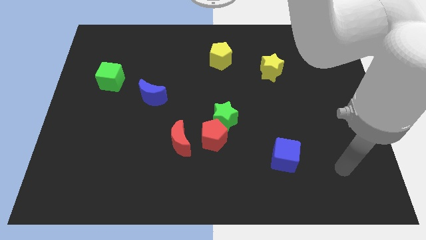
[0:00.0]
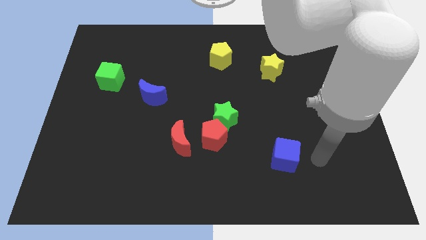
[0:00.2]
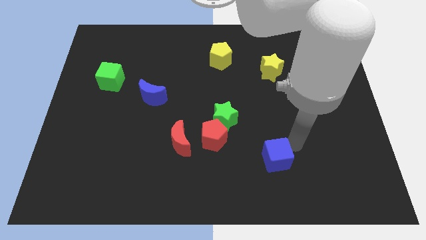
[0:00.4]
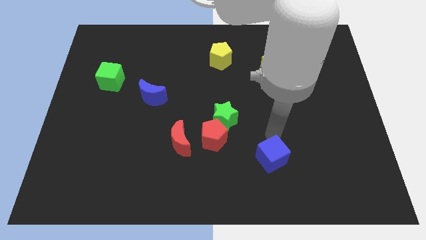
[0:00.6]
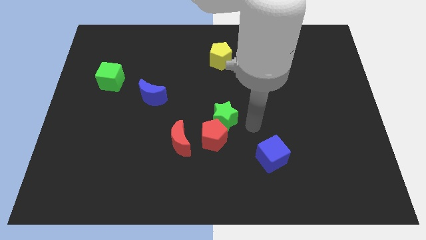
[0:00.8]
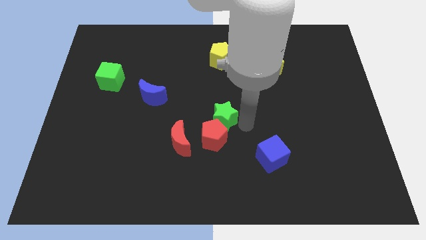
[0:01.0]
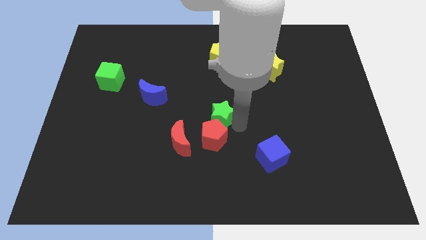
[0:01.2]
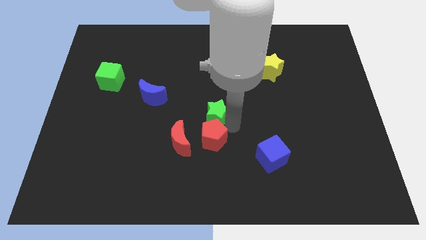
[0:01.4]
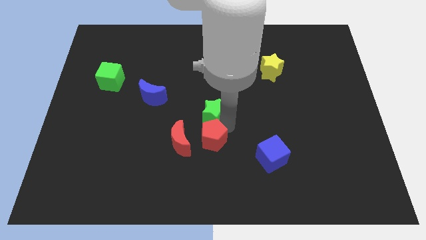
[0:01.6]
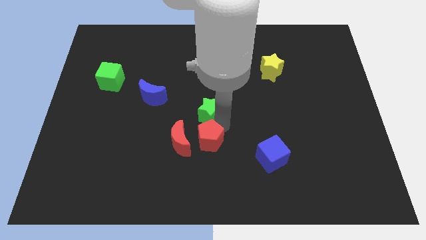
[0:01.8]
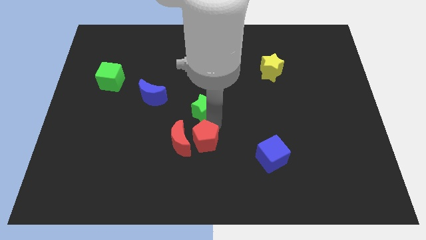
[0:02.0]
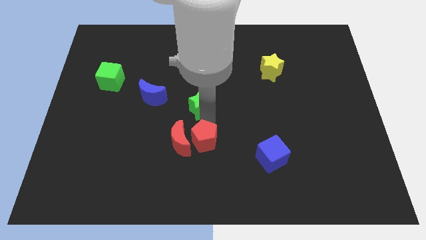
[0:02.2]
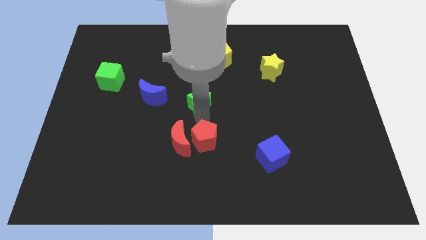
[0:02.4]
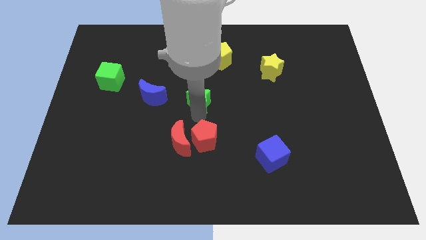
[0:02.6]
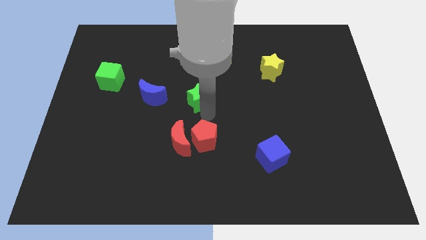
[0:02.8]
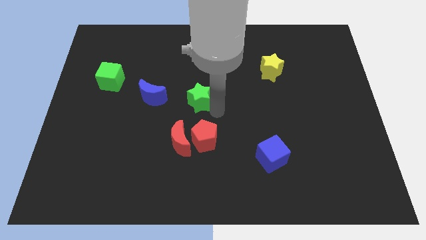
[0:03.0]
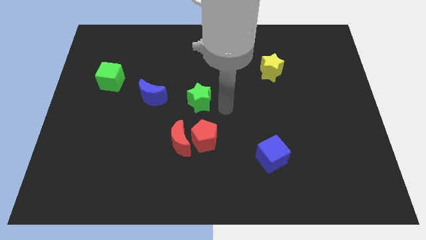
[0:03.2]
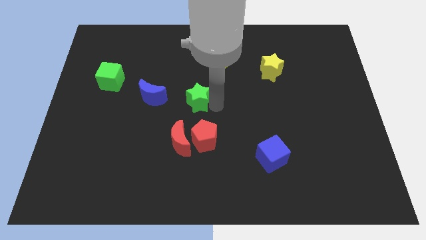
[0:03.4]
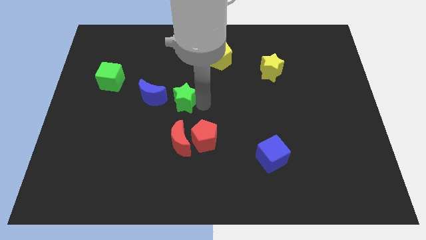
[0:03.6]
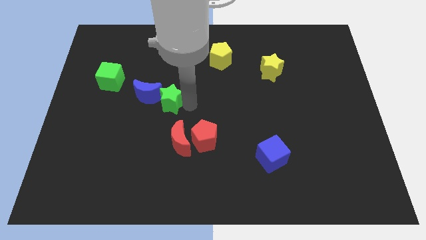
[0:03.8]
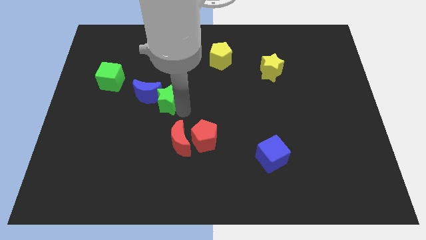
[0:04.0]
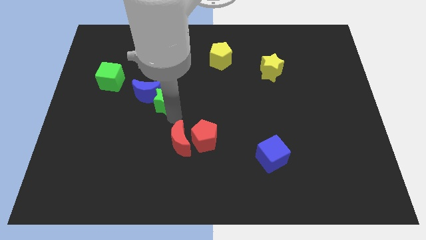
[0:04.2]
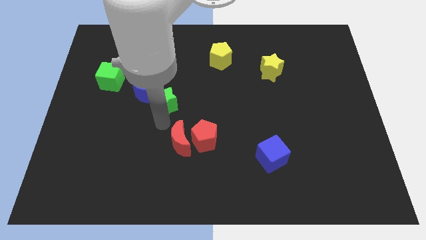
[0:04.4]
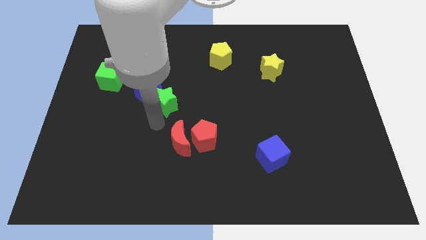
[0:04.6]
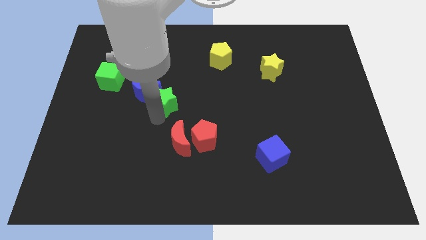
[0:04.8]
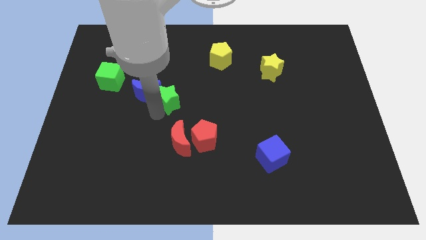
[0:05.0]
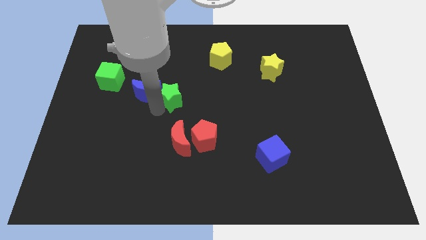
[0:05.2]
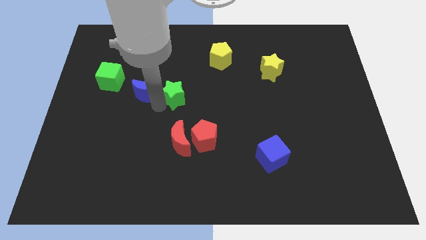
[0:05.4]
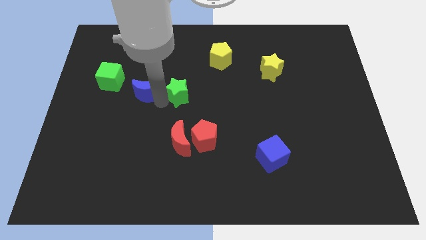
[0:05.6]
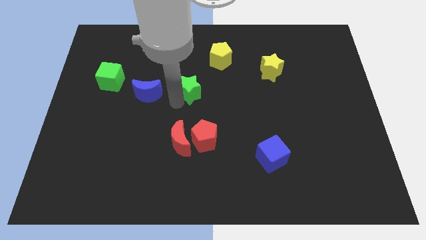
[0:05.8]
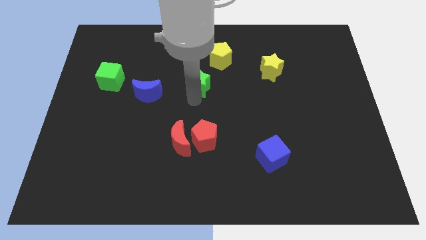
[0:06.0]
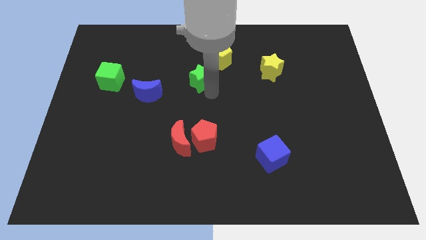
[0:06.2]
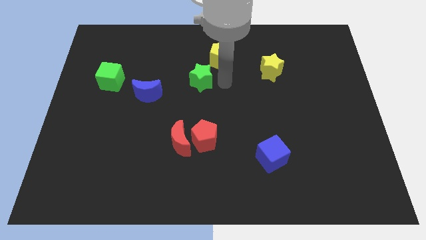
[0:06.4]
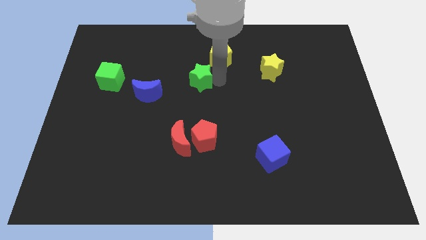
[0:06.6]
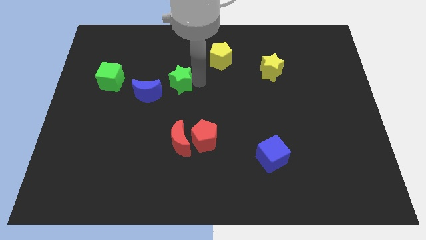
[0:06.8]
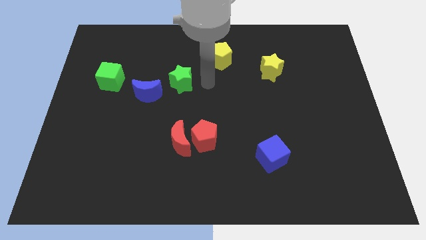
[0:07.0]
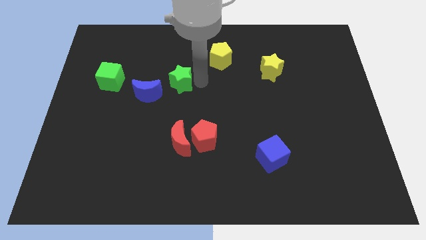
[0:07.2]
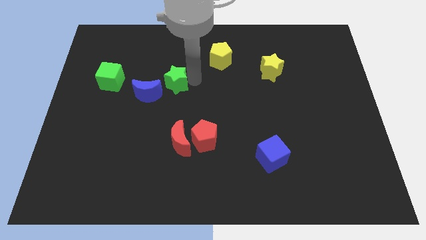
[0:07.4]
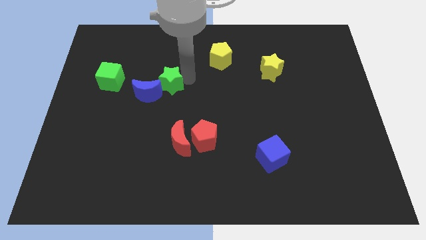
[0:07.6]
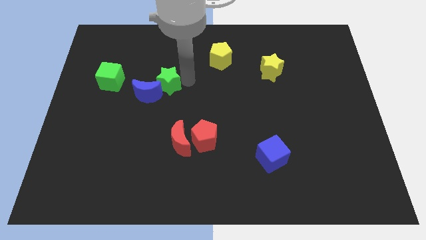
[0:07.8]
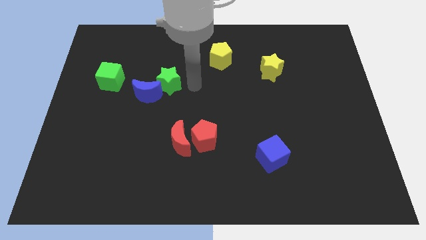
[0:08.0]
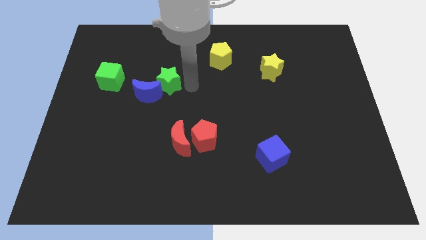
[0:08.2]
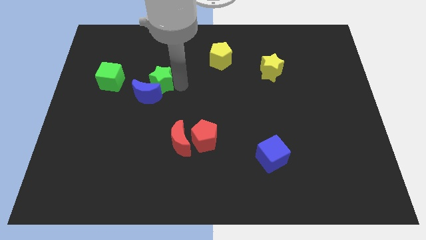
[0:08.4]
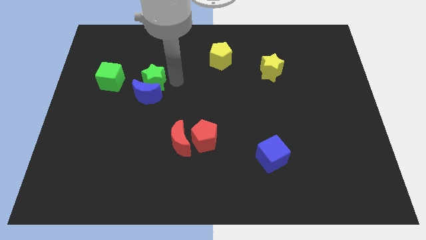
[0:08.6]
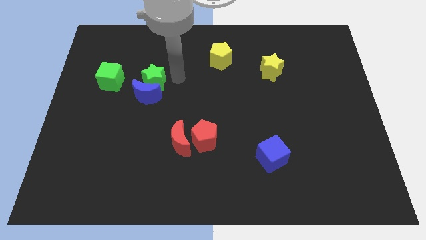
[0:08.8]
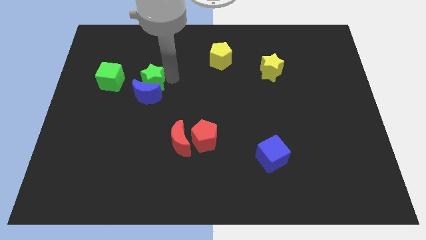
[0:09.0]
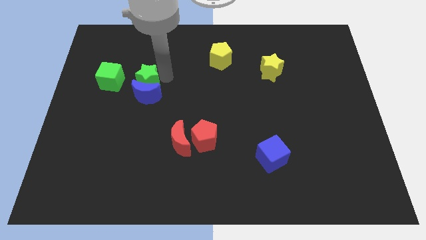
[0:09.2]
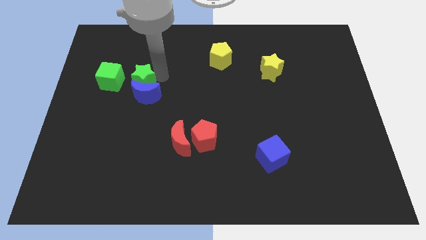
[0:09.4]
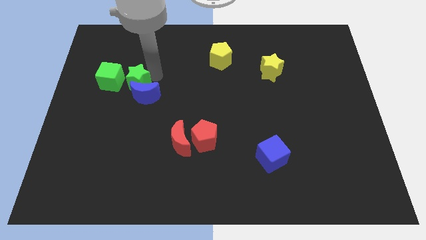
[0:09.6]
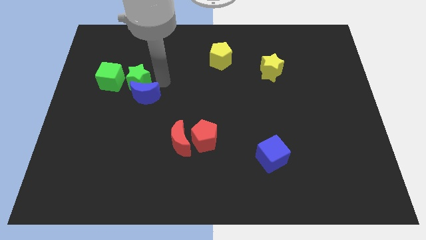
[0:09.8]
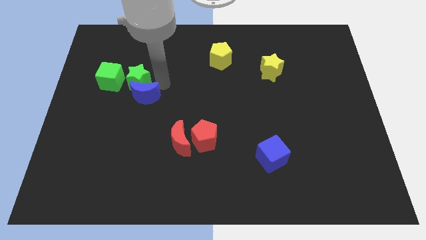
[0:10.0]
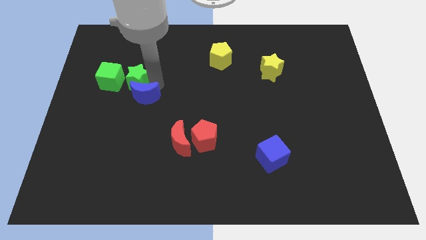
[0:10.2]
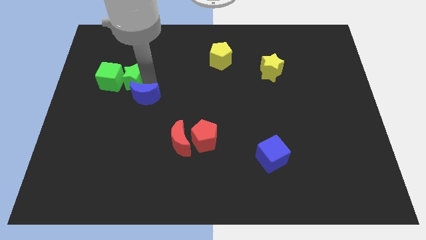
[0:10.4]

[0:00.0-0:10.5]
put the green star close to the green cube

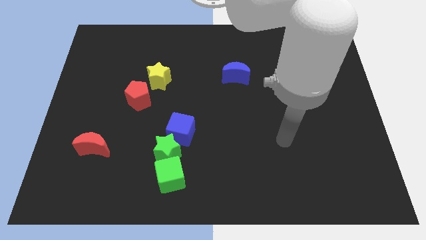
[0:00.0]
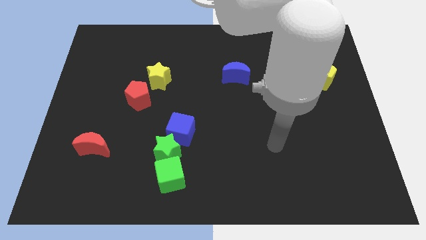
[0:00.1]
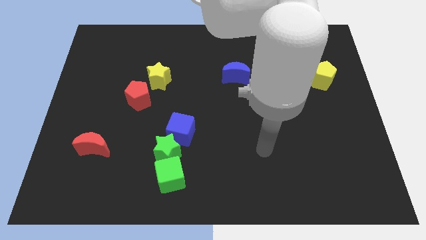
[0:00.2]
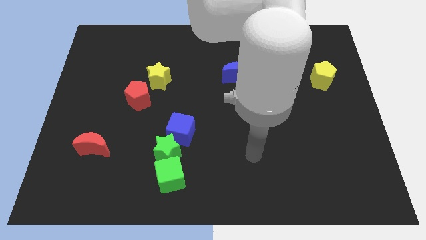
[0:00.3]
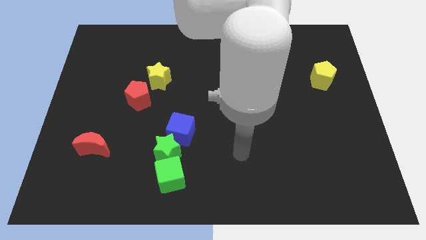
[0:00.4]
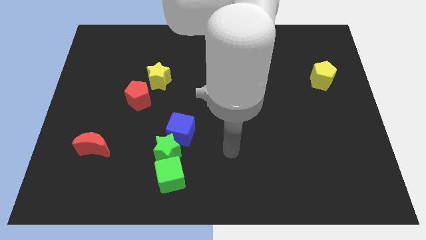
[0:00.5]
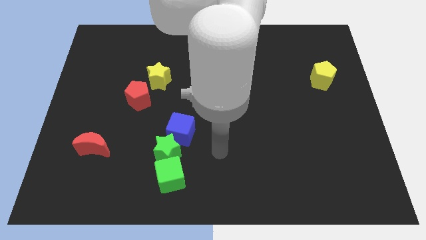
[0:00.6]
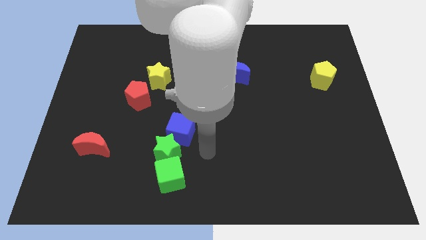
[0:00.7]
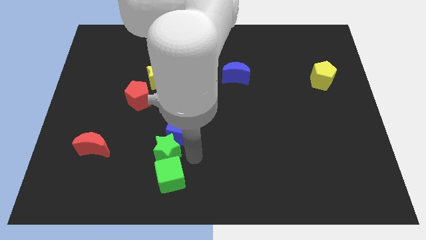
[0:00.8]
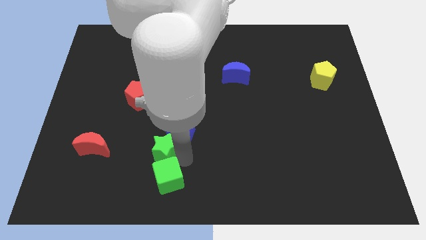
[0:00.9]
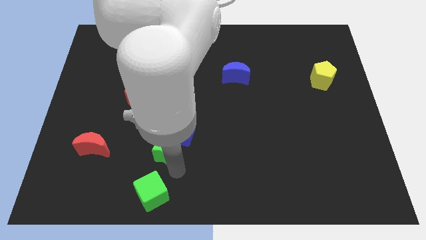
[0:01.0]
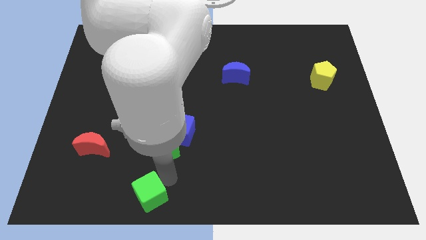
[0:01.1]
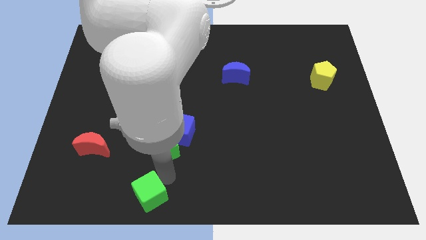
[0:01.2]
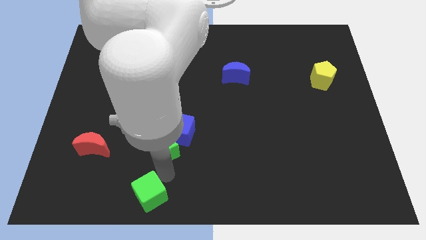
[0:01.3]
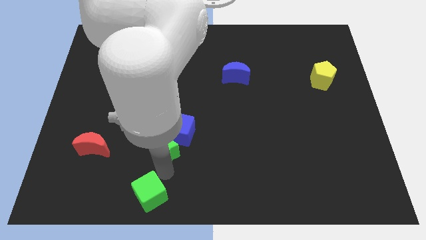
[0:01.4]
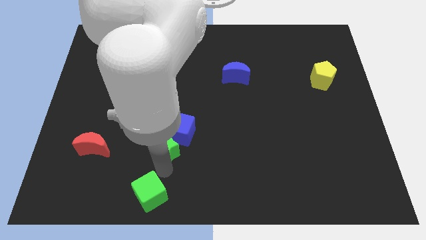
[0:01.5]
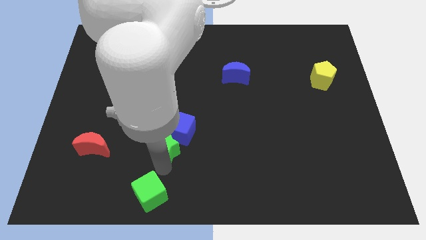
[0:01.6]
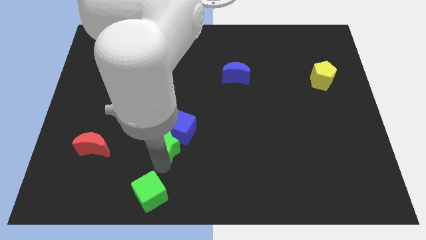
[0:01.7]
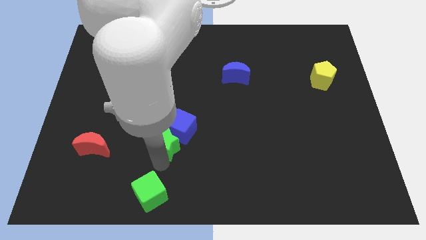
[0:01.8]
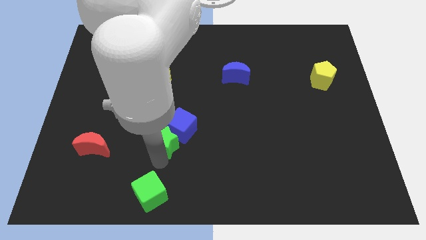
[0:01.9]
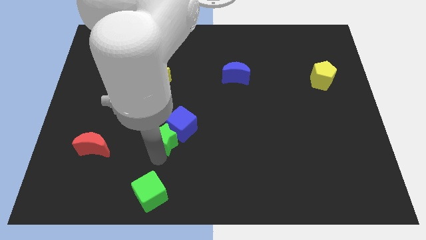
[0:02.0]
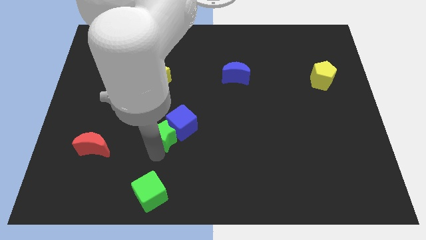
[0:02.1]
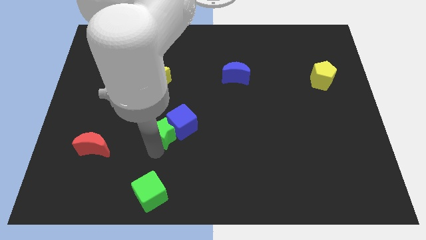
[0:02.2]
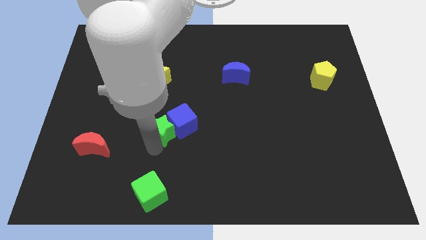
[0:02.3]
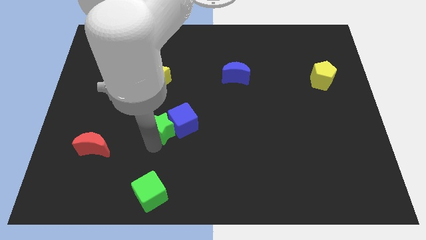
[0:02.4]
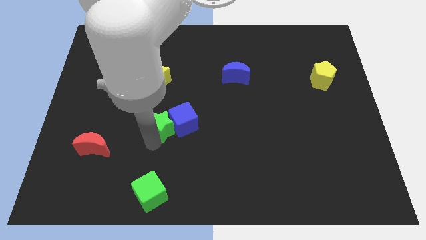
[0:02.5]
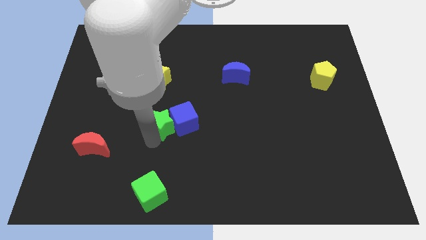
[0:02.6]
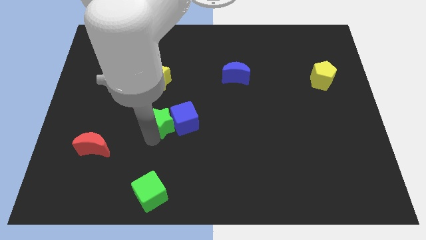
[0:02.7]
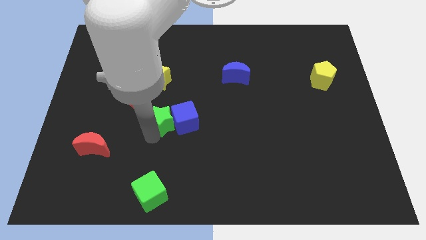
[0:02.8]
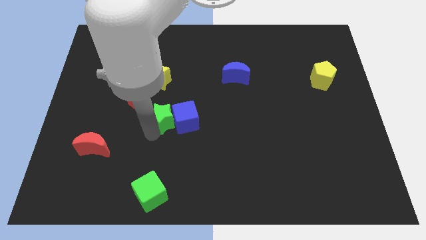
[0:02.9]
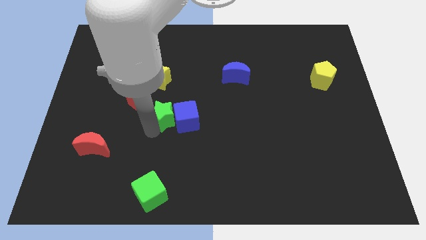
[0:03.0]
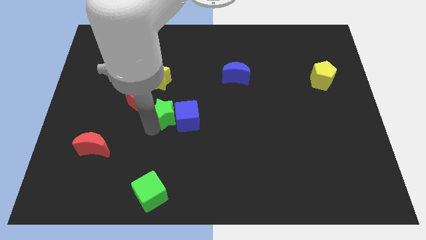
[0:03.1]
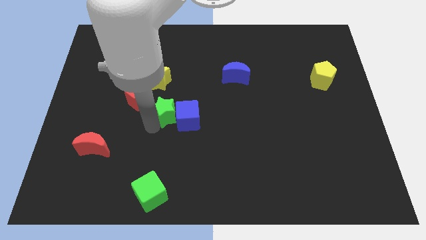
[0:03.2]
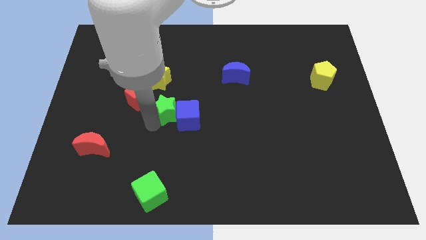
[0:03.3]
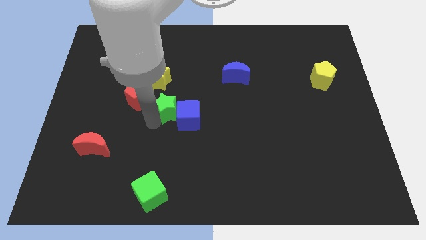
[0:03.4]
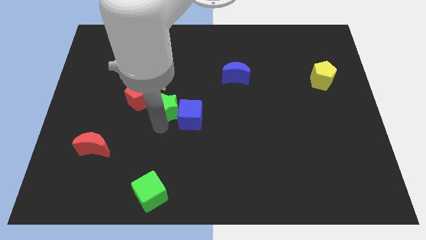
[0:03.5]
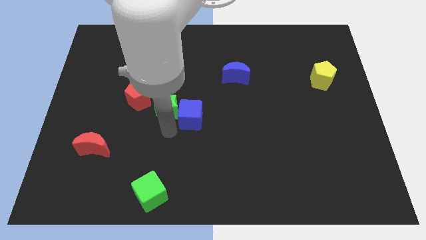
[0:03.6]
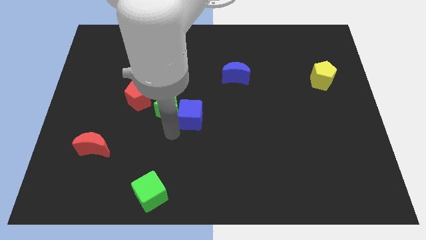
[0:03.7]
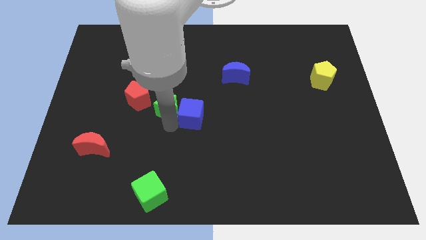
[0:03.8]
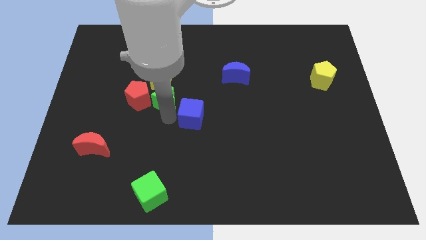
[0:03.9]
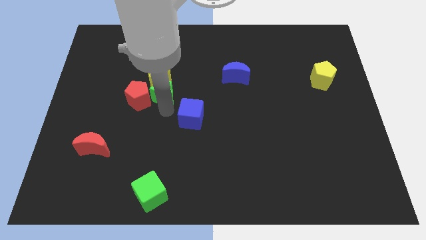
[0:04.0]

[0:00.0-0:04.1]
move the green star towards the yellow star
